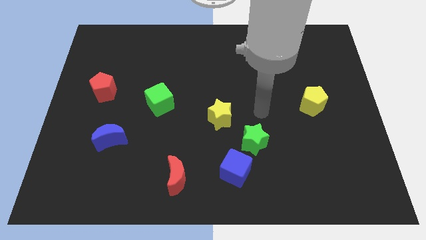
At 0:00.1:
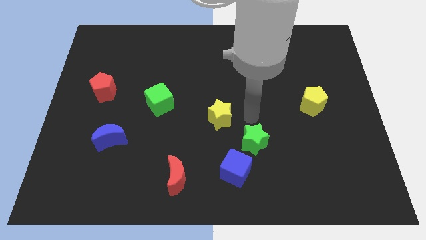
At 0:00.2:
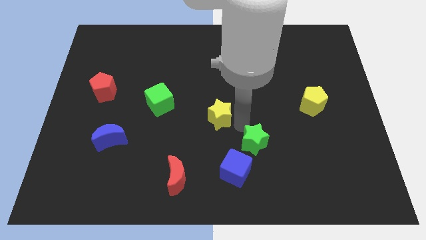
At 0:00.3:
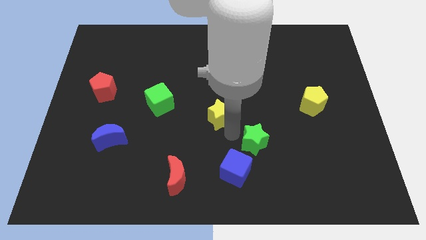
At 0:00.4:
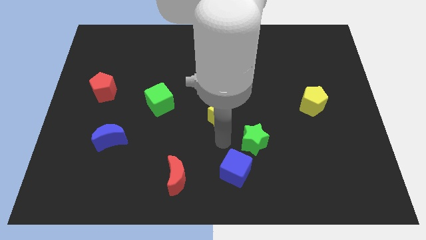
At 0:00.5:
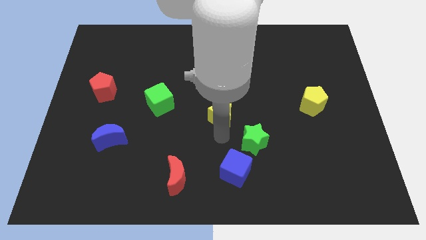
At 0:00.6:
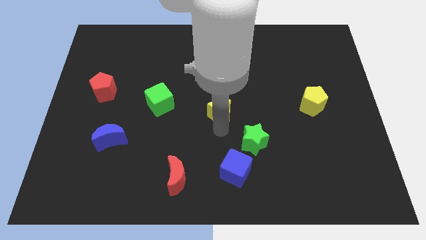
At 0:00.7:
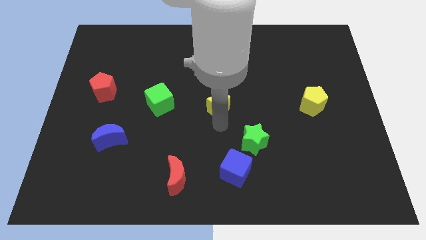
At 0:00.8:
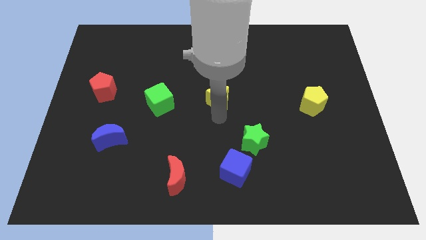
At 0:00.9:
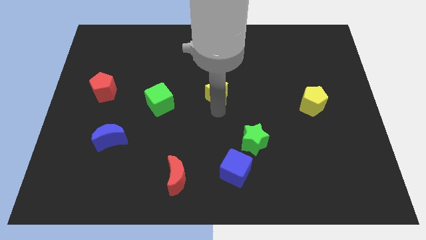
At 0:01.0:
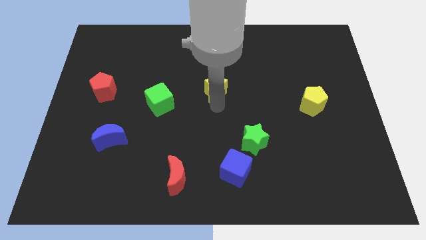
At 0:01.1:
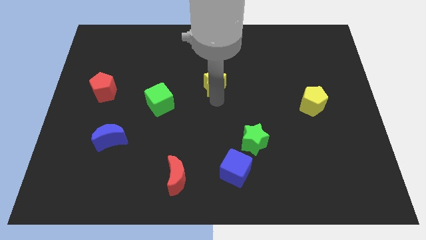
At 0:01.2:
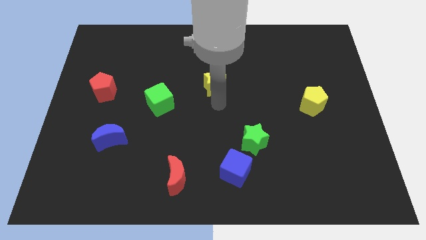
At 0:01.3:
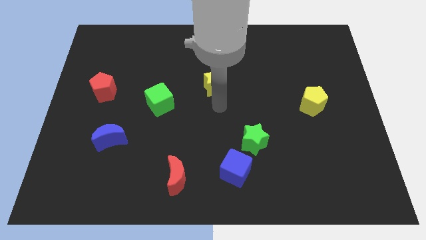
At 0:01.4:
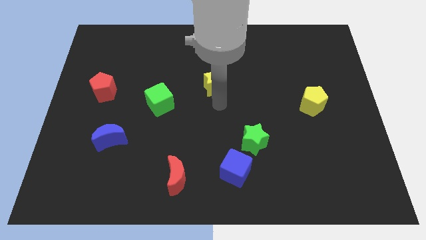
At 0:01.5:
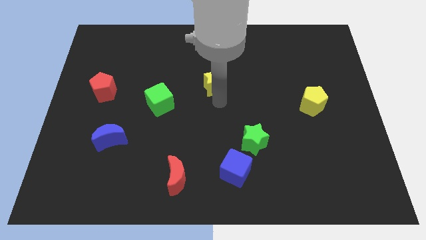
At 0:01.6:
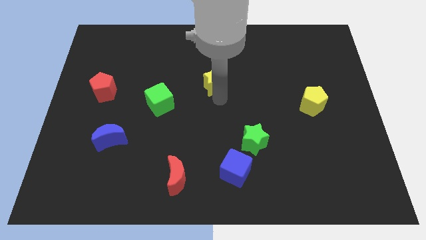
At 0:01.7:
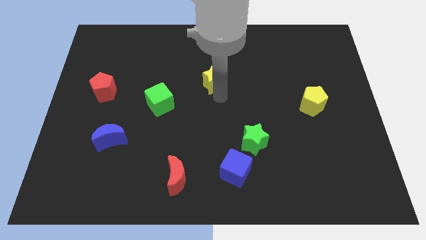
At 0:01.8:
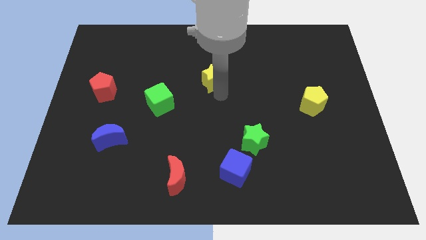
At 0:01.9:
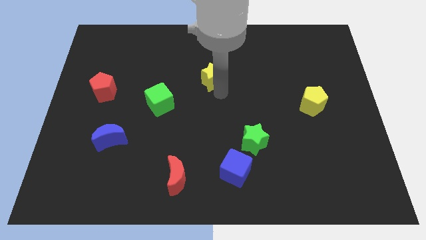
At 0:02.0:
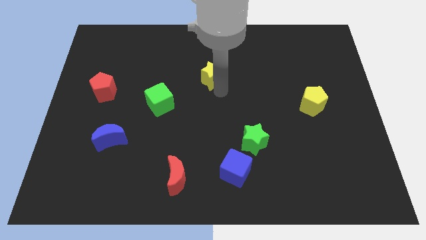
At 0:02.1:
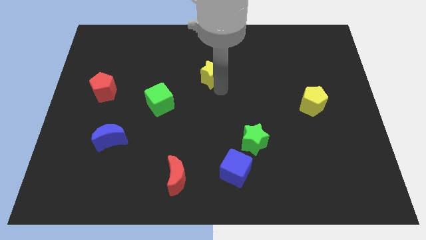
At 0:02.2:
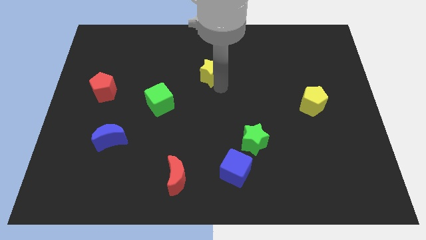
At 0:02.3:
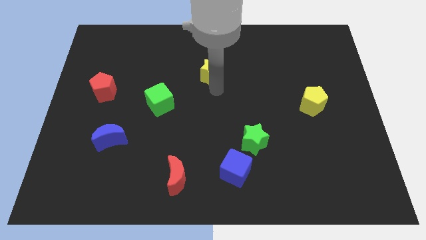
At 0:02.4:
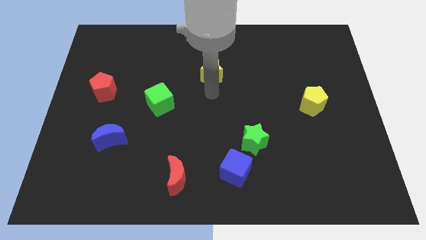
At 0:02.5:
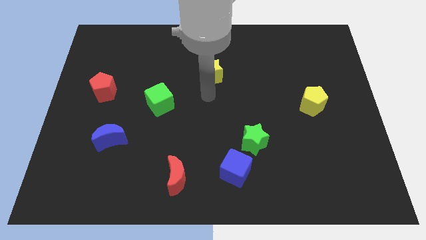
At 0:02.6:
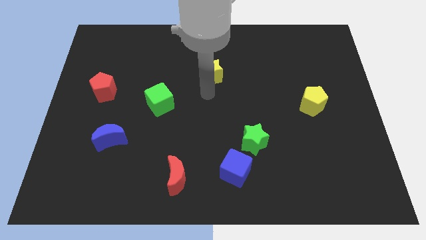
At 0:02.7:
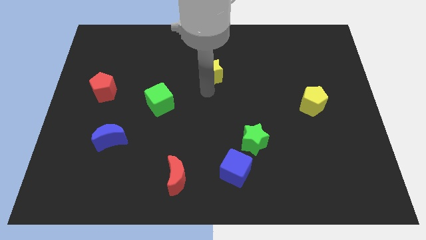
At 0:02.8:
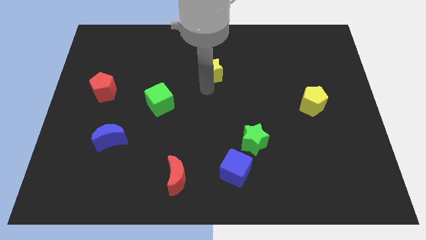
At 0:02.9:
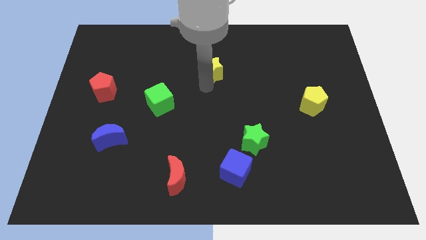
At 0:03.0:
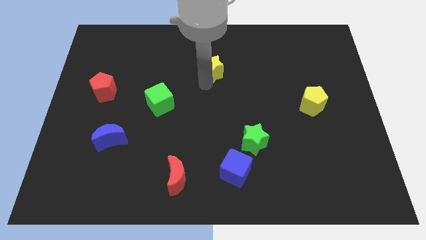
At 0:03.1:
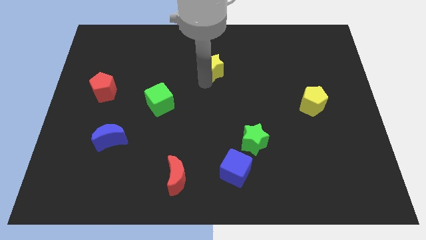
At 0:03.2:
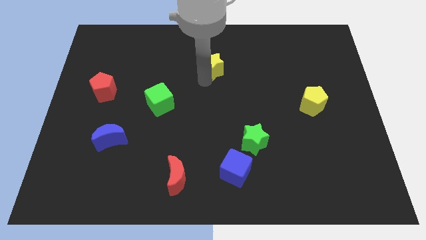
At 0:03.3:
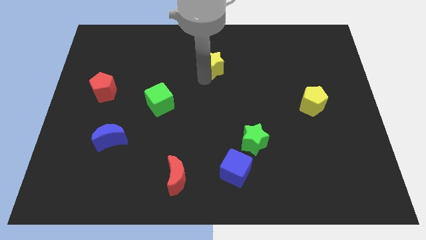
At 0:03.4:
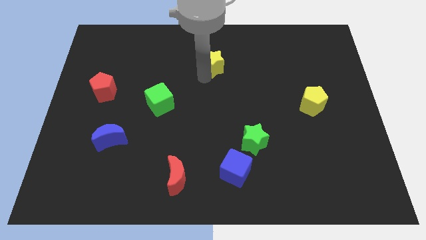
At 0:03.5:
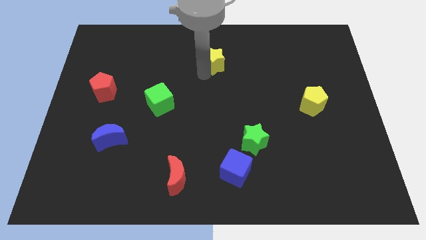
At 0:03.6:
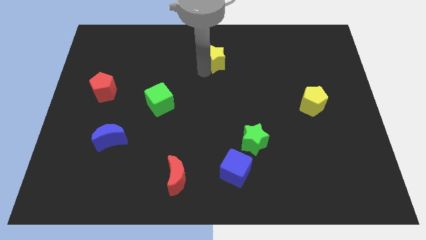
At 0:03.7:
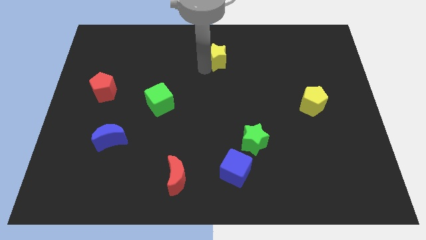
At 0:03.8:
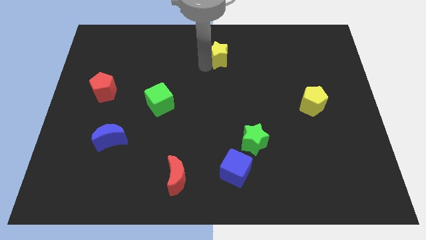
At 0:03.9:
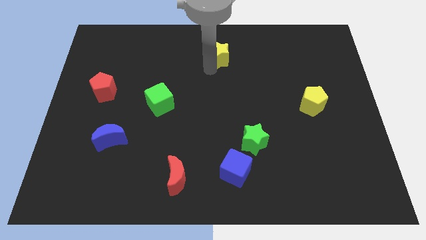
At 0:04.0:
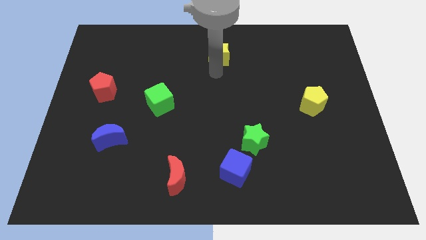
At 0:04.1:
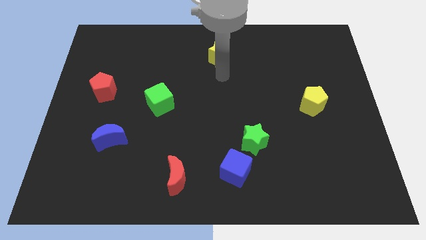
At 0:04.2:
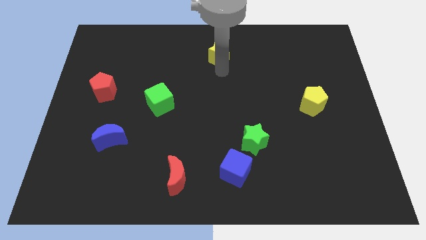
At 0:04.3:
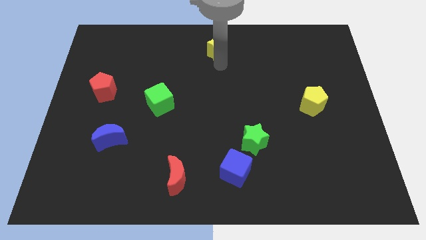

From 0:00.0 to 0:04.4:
slide the yellow star to the top

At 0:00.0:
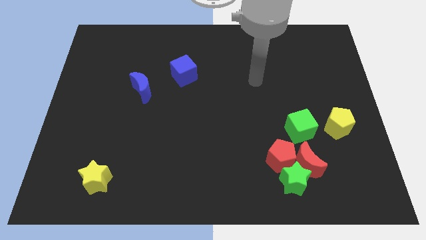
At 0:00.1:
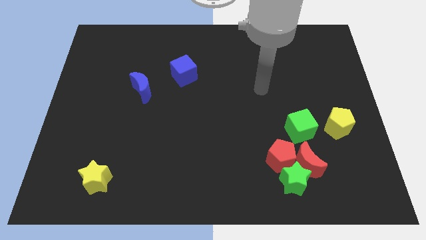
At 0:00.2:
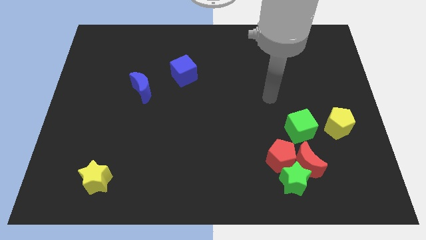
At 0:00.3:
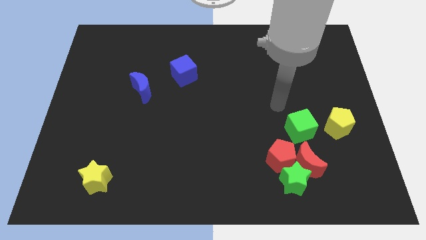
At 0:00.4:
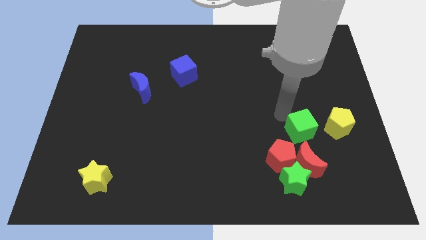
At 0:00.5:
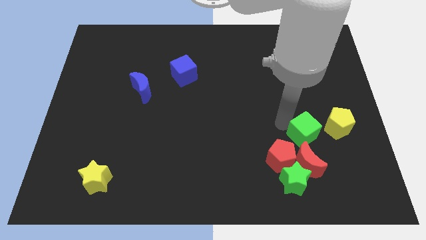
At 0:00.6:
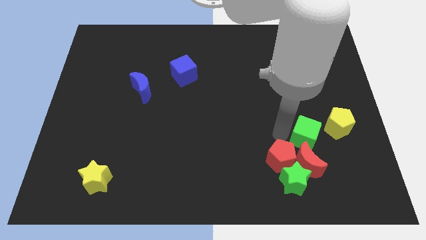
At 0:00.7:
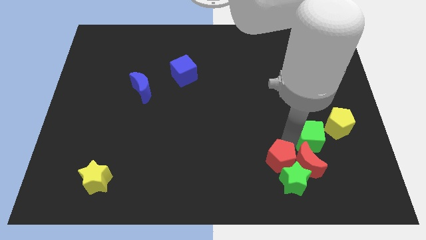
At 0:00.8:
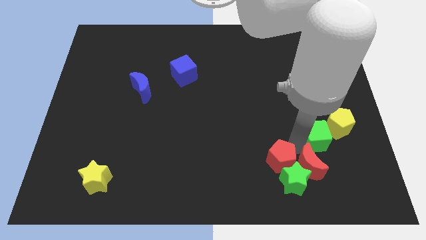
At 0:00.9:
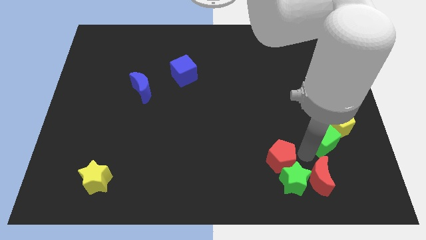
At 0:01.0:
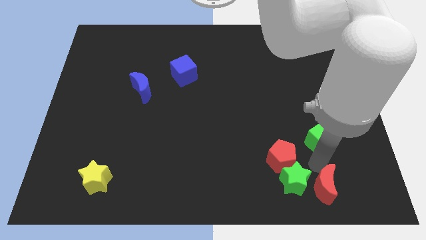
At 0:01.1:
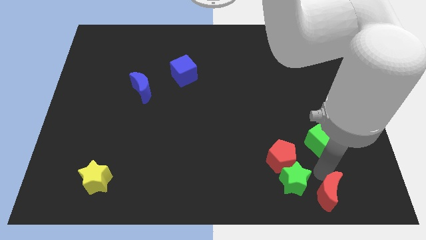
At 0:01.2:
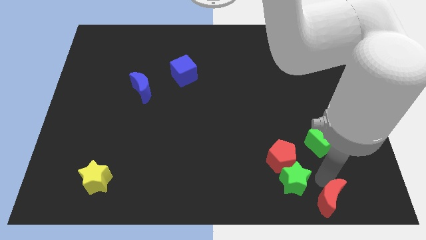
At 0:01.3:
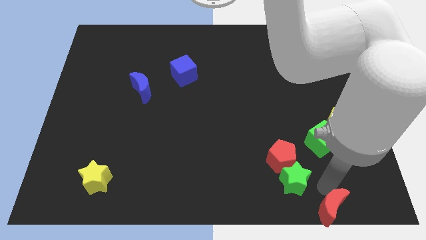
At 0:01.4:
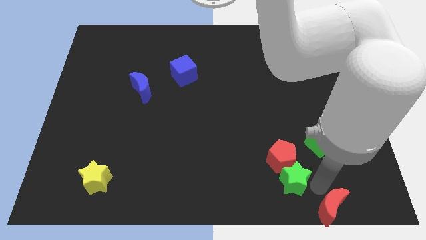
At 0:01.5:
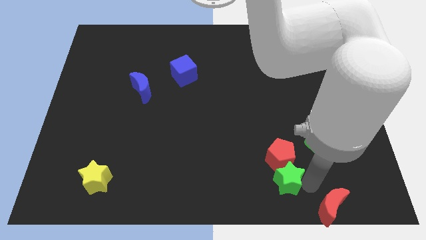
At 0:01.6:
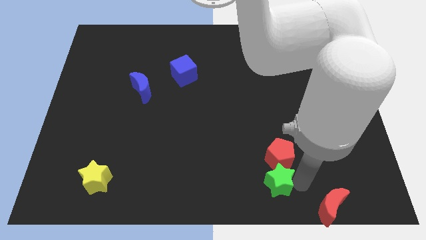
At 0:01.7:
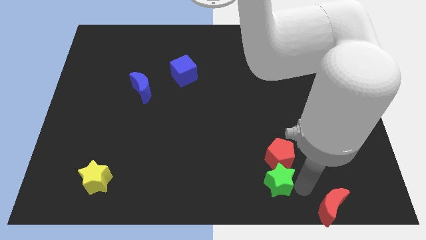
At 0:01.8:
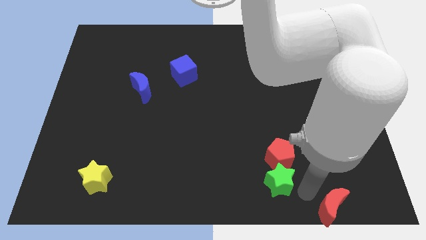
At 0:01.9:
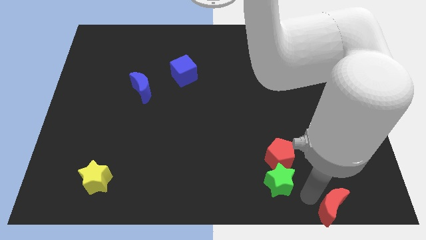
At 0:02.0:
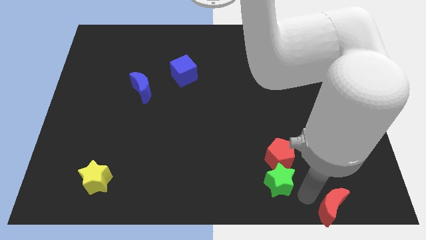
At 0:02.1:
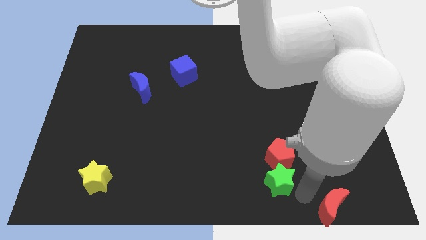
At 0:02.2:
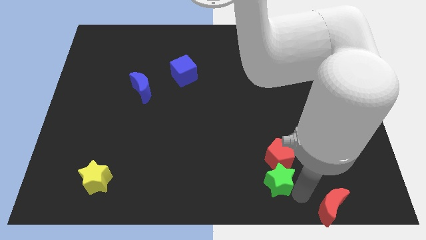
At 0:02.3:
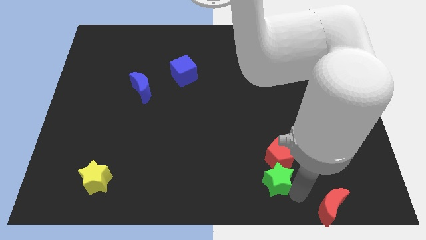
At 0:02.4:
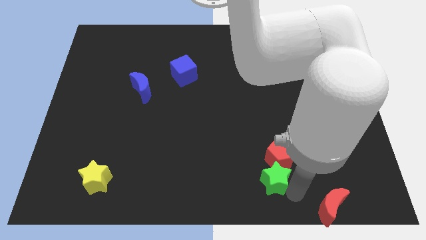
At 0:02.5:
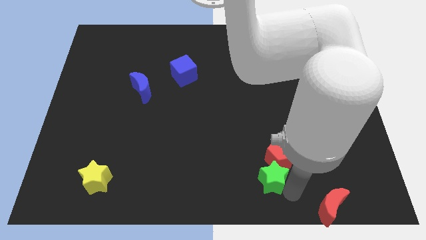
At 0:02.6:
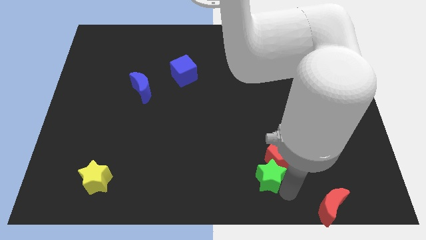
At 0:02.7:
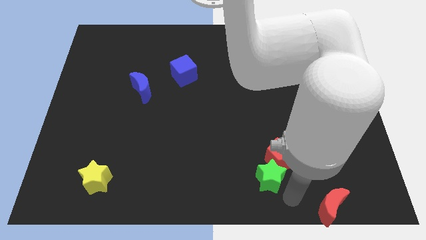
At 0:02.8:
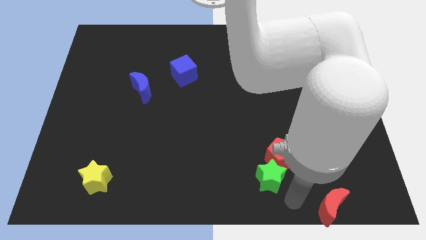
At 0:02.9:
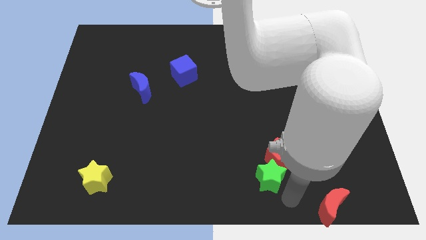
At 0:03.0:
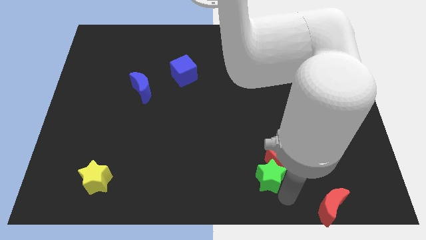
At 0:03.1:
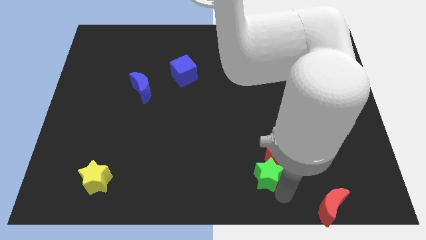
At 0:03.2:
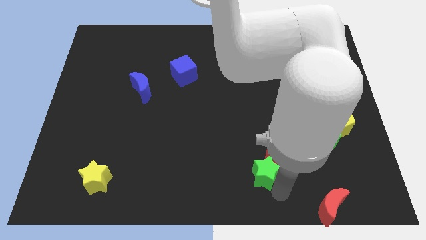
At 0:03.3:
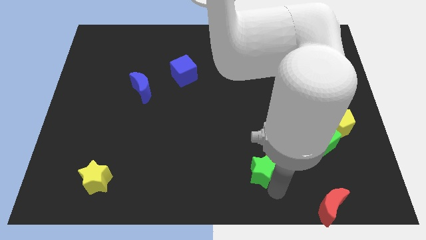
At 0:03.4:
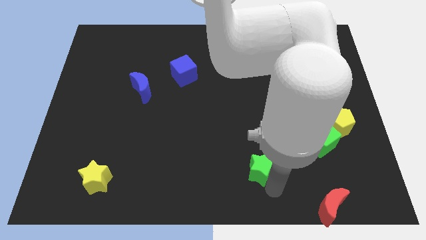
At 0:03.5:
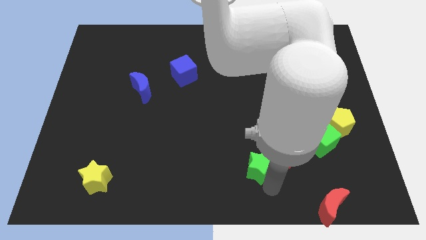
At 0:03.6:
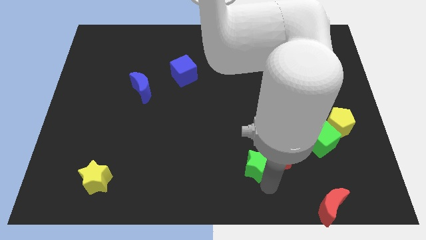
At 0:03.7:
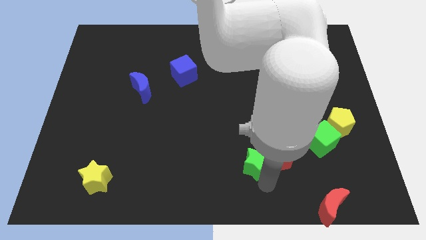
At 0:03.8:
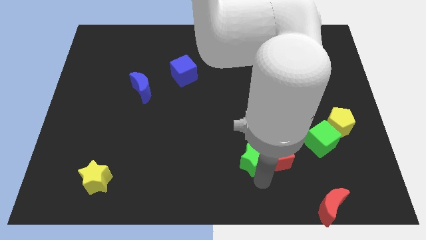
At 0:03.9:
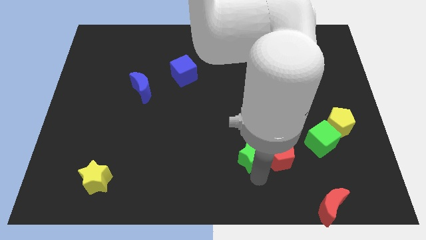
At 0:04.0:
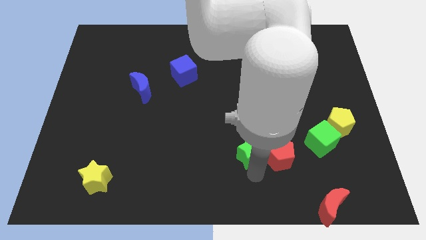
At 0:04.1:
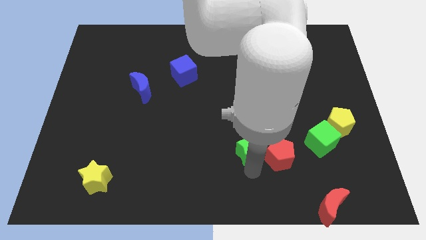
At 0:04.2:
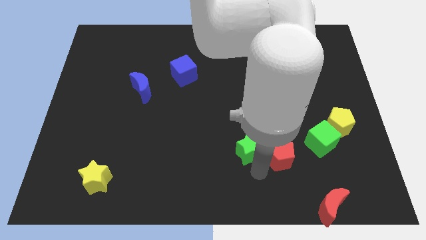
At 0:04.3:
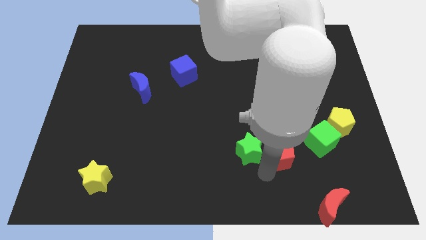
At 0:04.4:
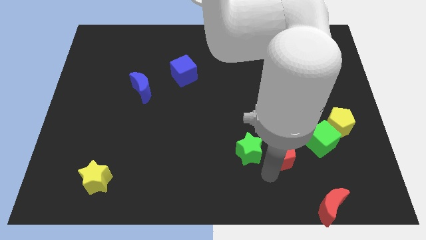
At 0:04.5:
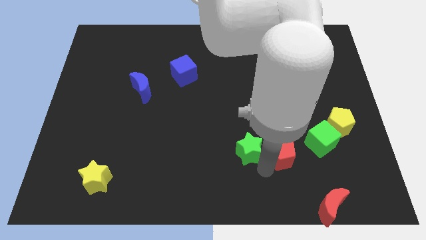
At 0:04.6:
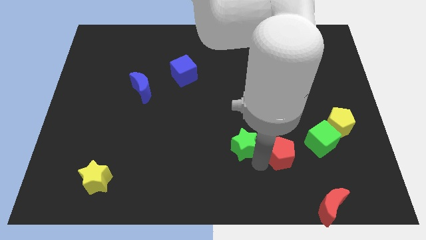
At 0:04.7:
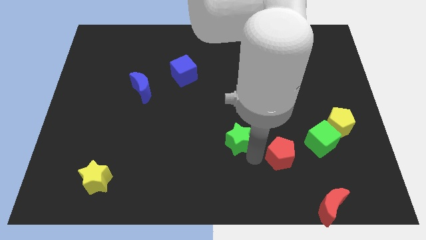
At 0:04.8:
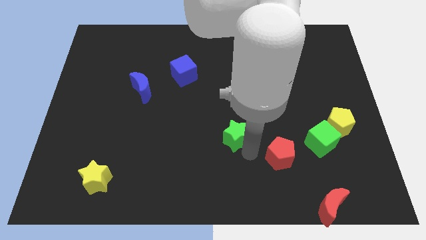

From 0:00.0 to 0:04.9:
slide the green star to the middle
